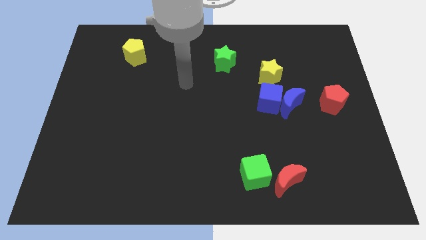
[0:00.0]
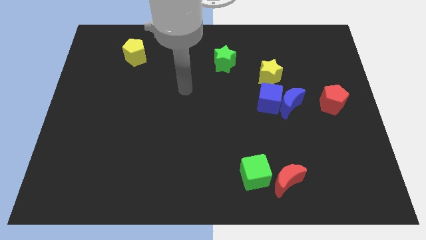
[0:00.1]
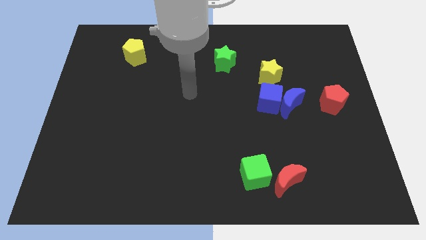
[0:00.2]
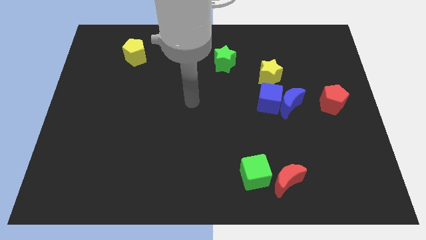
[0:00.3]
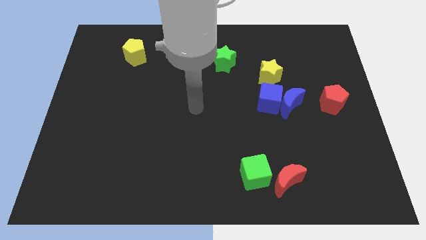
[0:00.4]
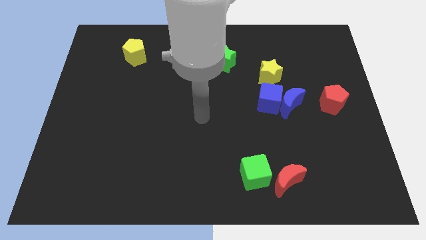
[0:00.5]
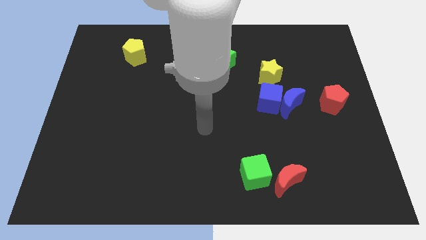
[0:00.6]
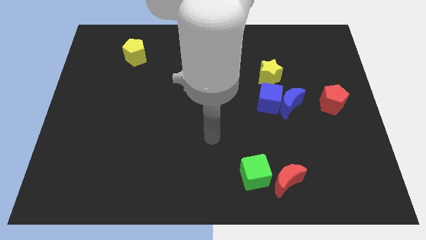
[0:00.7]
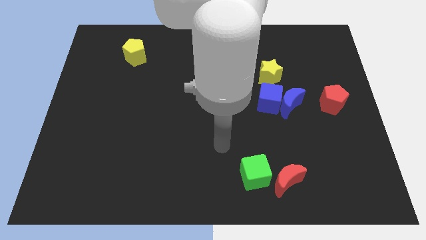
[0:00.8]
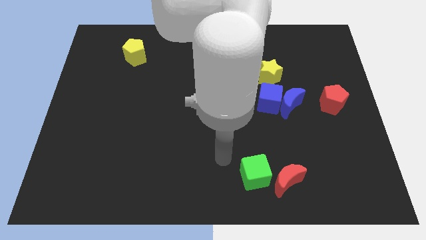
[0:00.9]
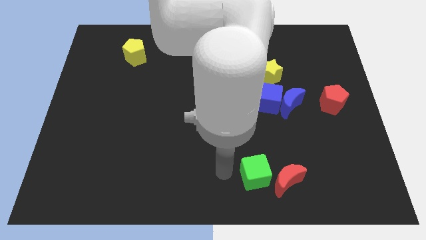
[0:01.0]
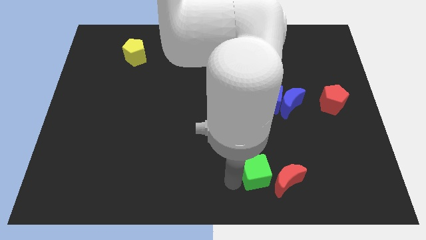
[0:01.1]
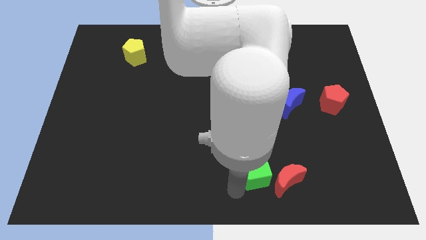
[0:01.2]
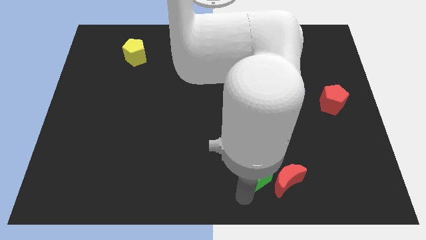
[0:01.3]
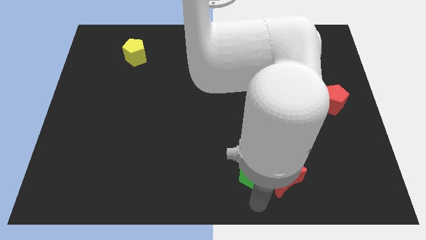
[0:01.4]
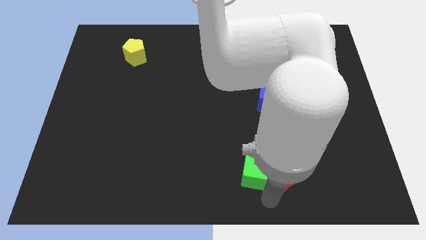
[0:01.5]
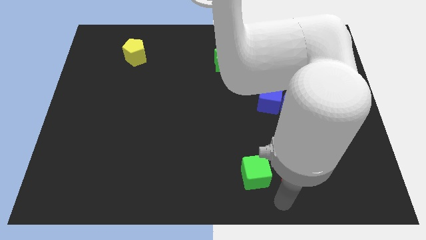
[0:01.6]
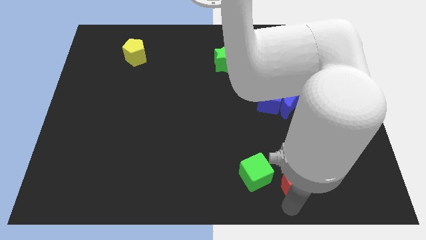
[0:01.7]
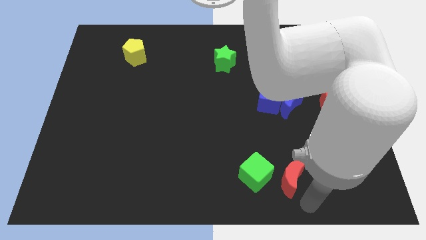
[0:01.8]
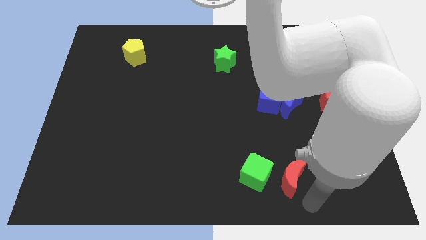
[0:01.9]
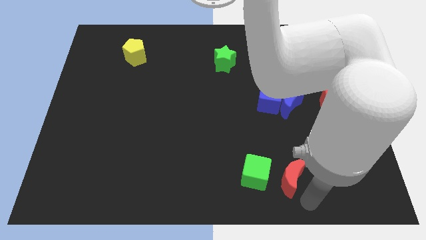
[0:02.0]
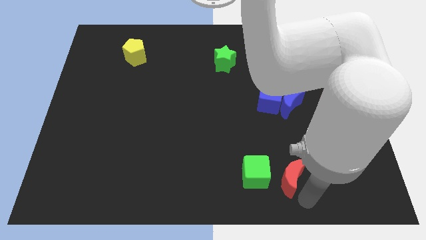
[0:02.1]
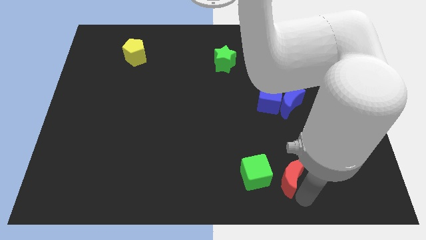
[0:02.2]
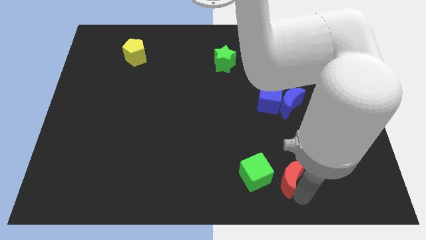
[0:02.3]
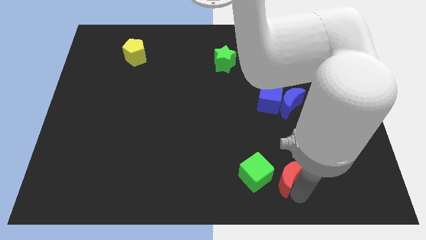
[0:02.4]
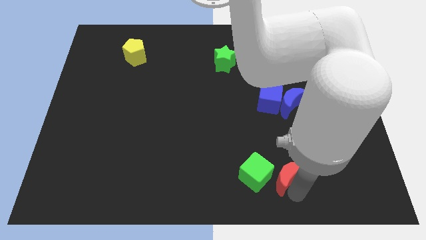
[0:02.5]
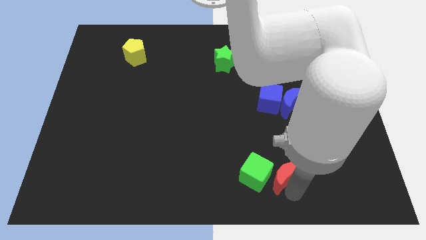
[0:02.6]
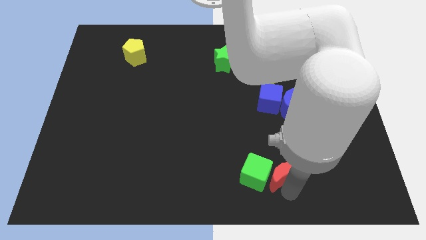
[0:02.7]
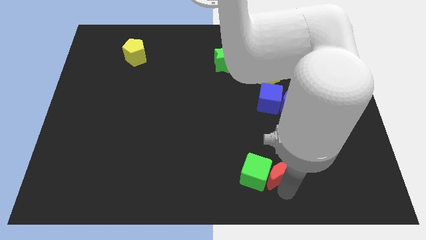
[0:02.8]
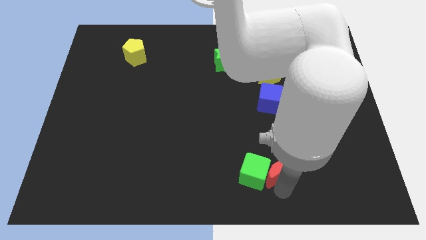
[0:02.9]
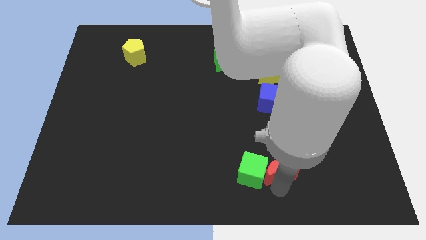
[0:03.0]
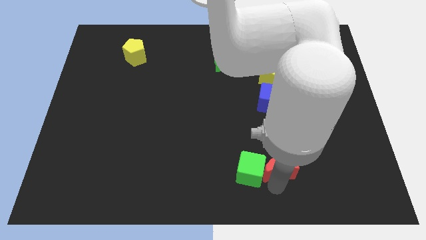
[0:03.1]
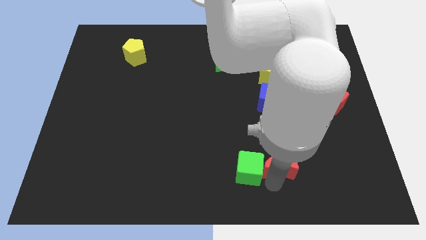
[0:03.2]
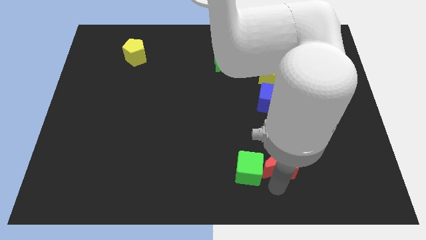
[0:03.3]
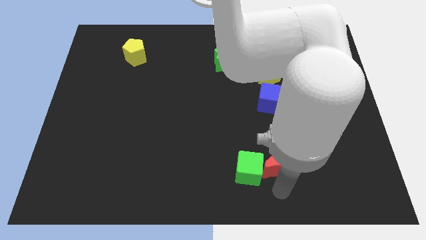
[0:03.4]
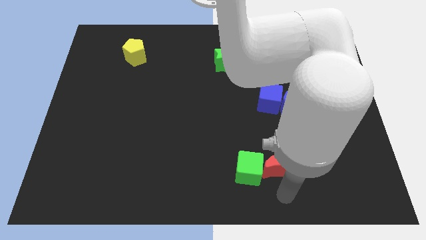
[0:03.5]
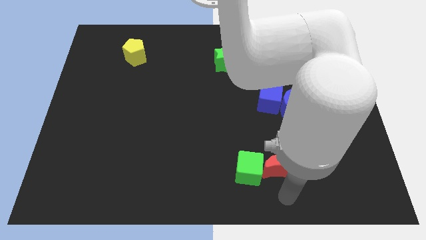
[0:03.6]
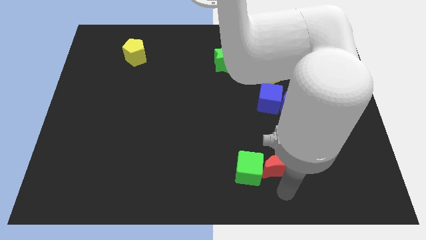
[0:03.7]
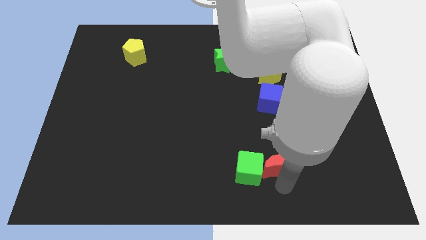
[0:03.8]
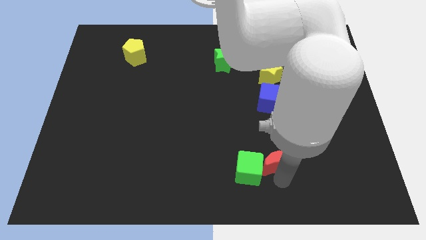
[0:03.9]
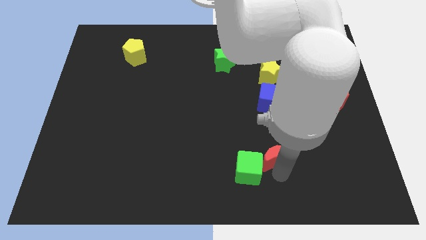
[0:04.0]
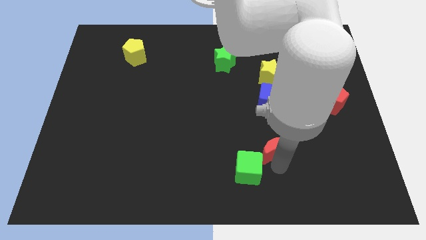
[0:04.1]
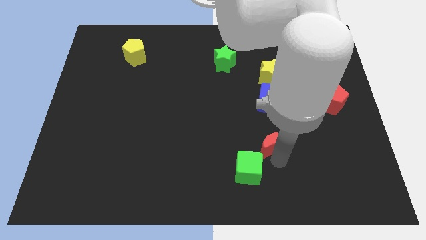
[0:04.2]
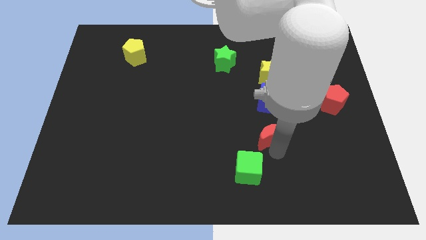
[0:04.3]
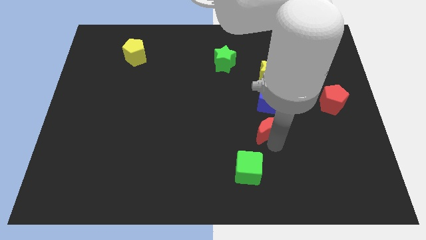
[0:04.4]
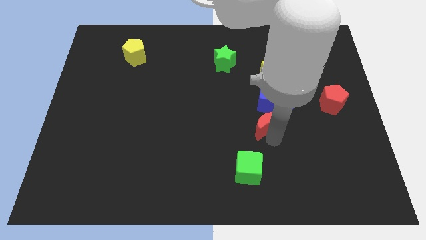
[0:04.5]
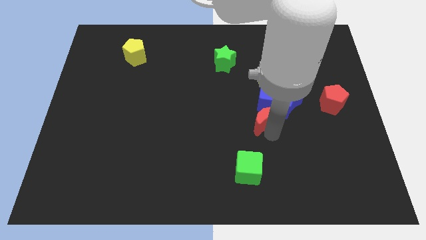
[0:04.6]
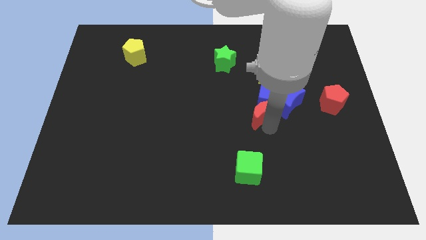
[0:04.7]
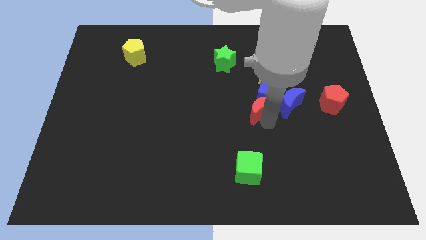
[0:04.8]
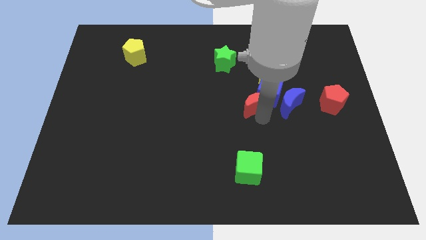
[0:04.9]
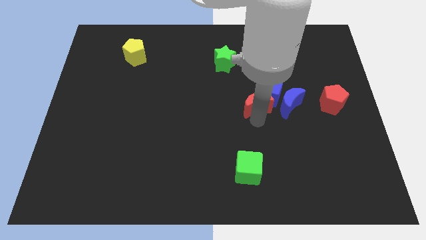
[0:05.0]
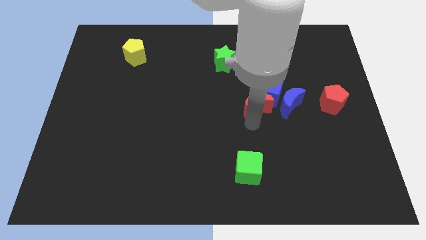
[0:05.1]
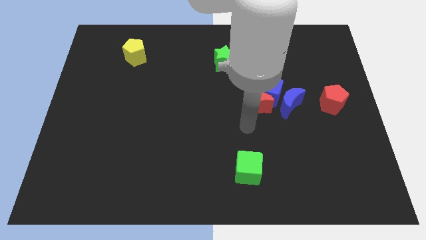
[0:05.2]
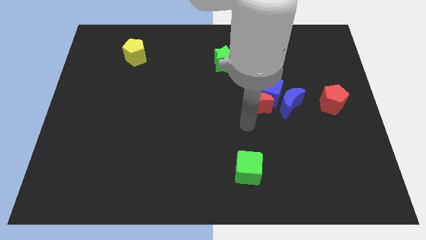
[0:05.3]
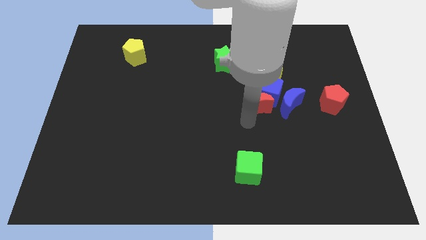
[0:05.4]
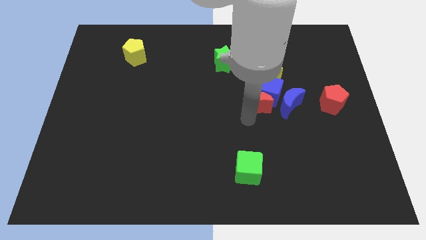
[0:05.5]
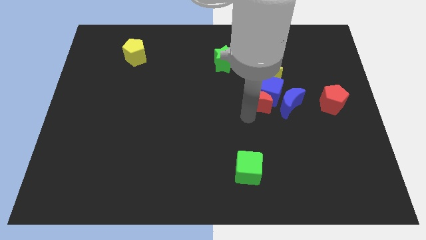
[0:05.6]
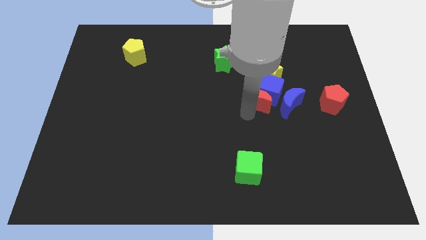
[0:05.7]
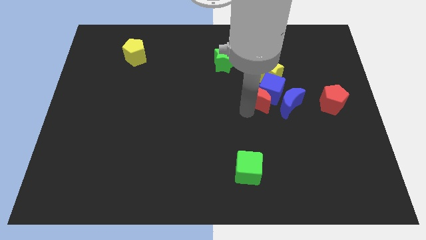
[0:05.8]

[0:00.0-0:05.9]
put the red moon to the top left side of the blue moon

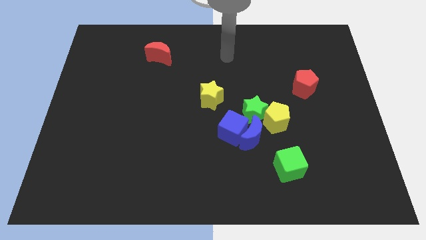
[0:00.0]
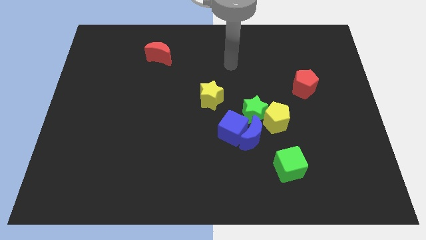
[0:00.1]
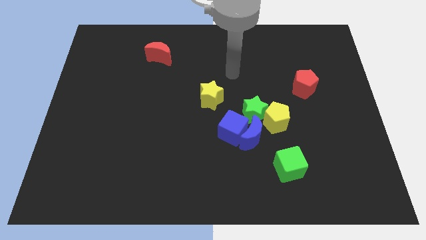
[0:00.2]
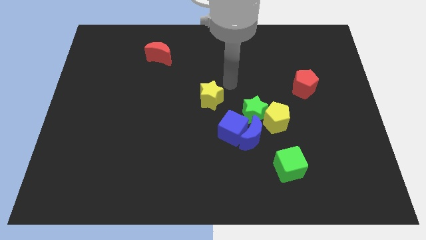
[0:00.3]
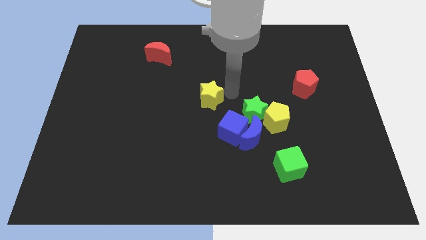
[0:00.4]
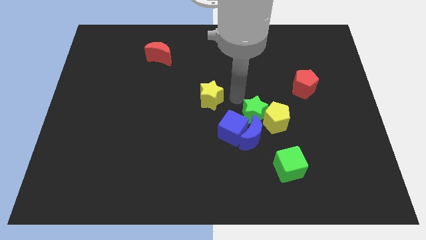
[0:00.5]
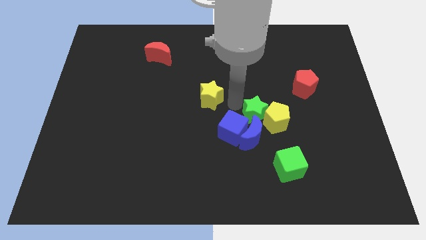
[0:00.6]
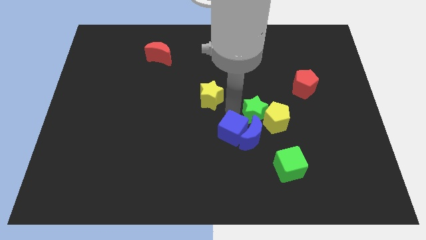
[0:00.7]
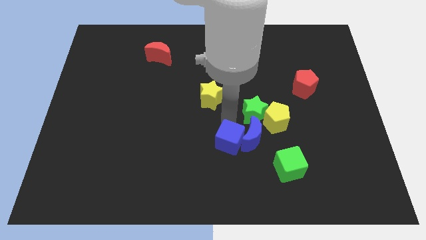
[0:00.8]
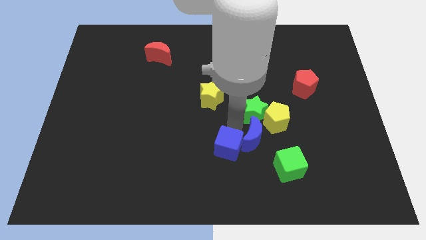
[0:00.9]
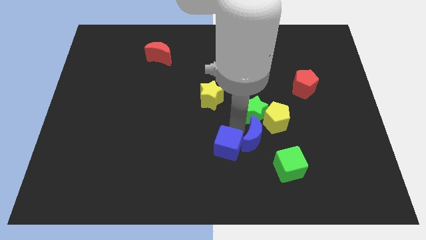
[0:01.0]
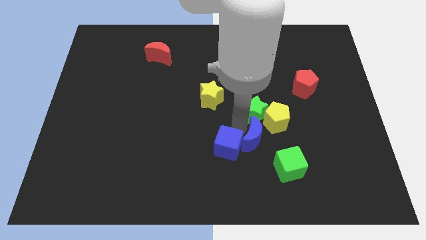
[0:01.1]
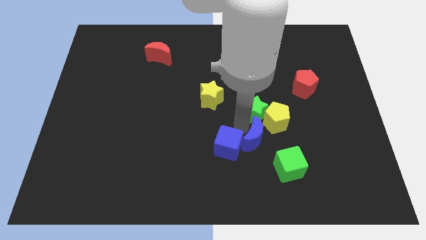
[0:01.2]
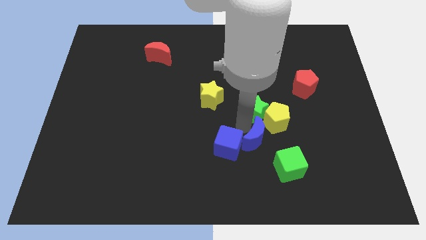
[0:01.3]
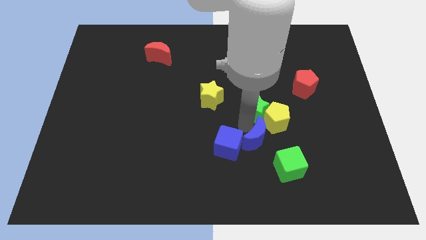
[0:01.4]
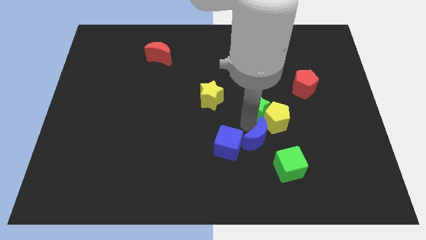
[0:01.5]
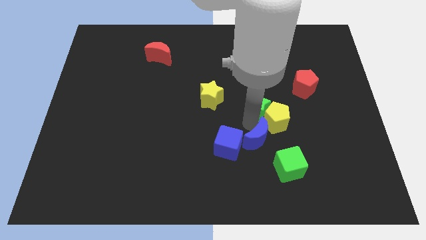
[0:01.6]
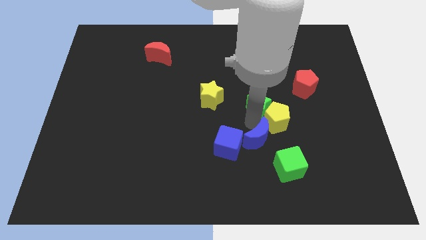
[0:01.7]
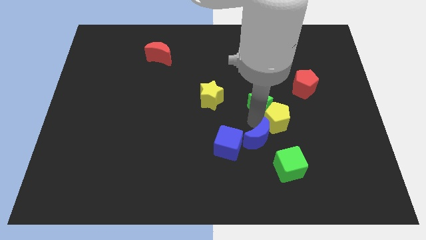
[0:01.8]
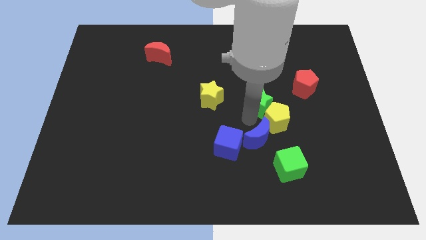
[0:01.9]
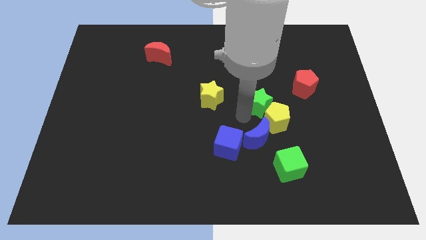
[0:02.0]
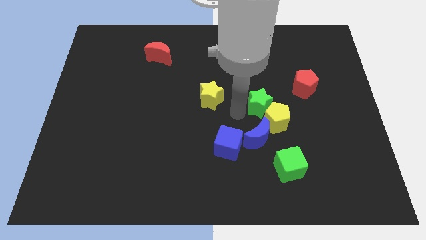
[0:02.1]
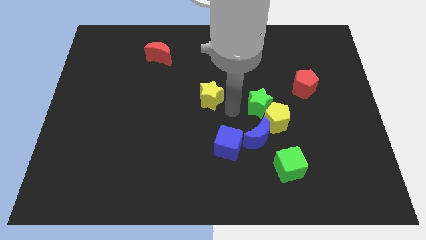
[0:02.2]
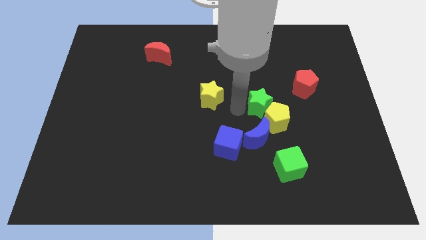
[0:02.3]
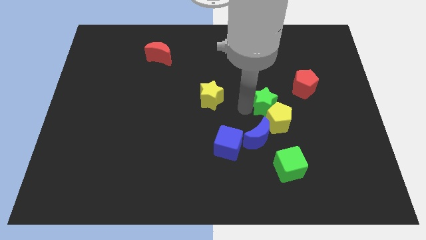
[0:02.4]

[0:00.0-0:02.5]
put the green star to the bottom left of the red pentagon
